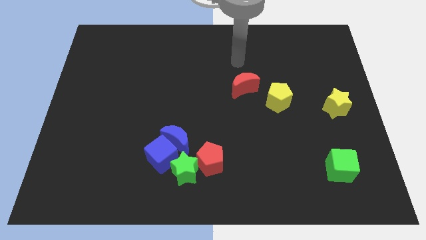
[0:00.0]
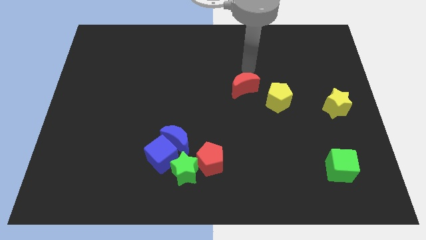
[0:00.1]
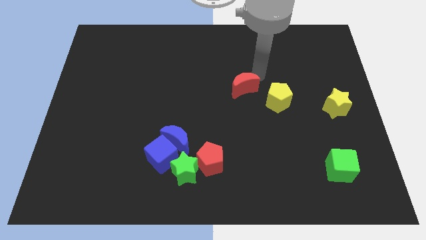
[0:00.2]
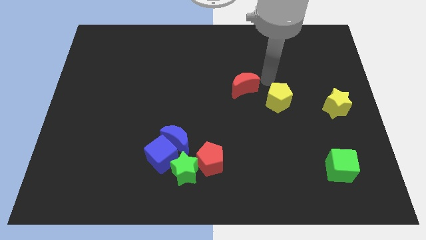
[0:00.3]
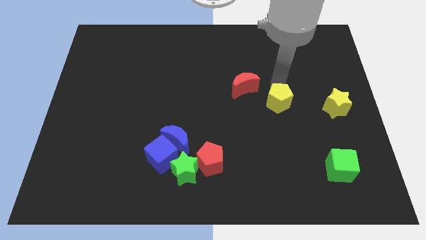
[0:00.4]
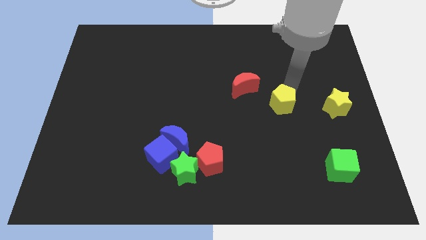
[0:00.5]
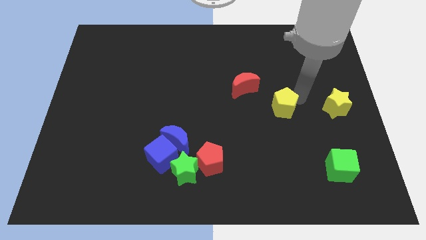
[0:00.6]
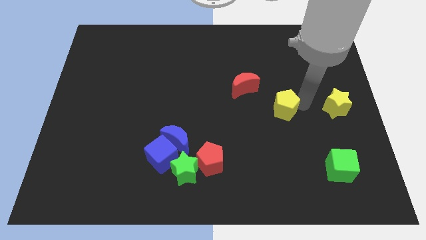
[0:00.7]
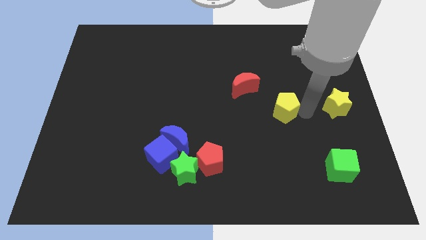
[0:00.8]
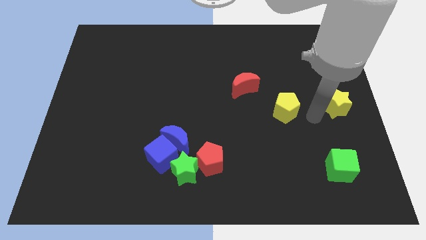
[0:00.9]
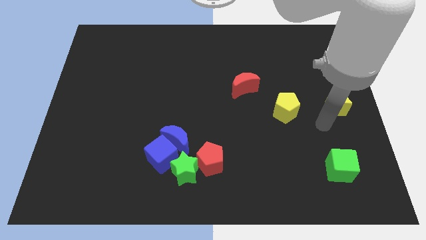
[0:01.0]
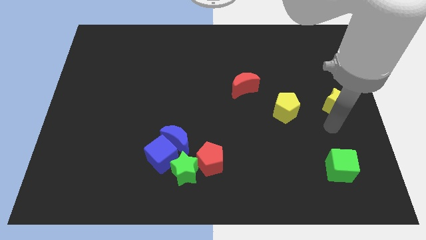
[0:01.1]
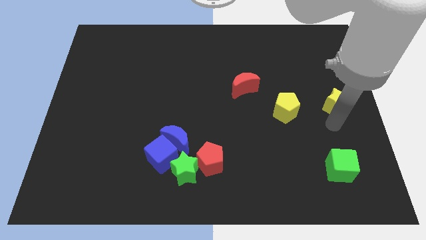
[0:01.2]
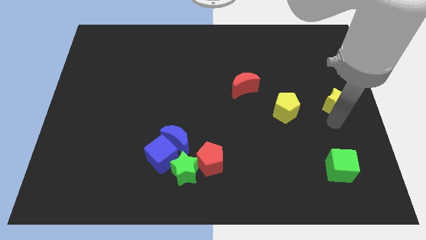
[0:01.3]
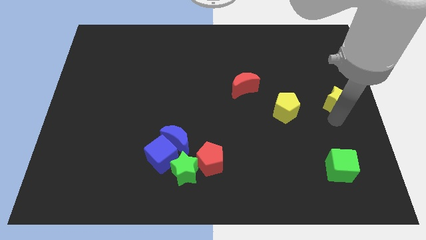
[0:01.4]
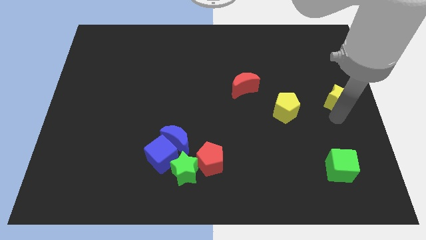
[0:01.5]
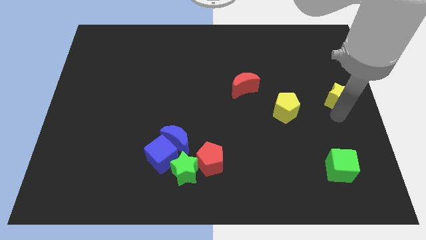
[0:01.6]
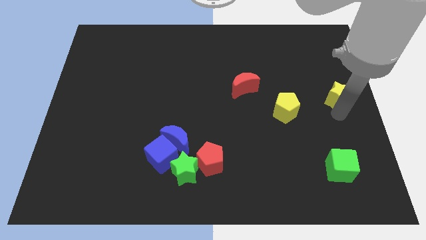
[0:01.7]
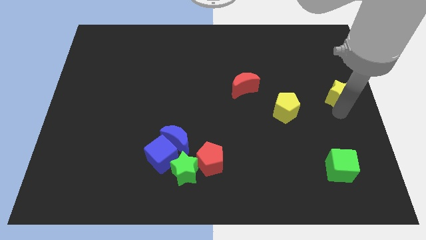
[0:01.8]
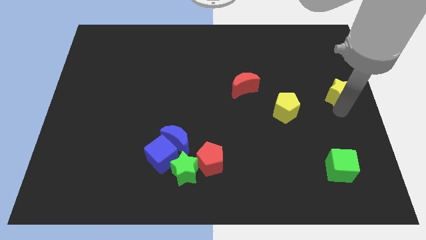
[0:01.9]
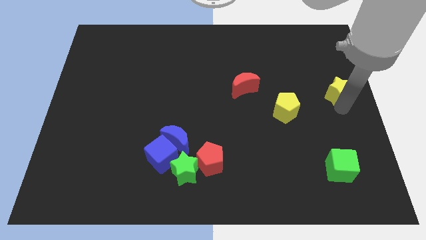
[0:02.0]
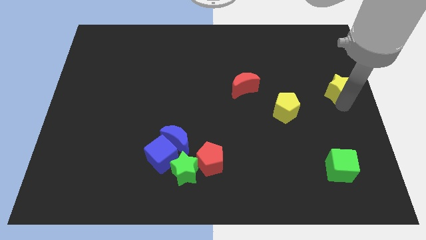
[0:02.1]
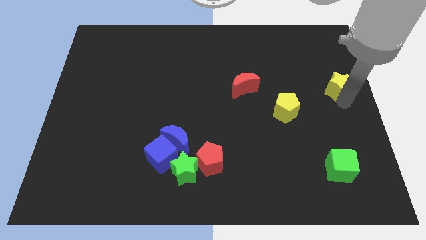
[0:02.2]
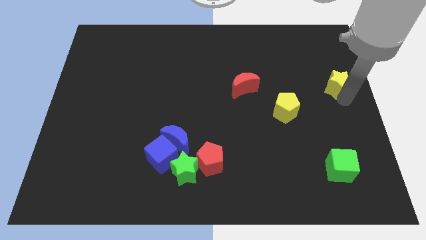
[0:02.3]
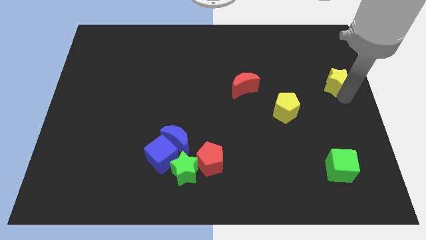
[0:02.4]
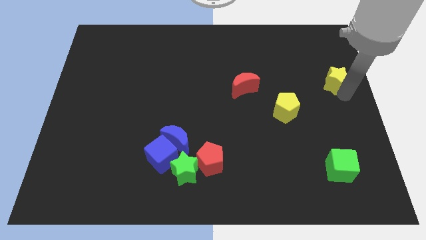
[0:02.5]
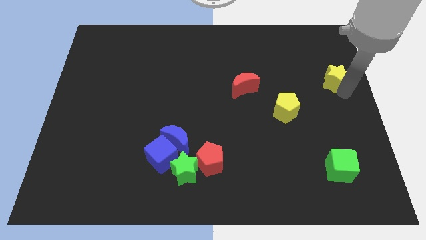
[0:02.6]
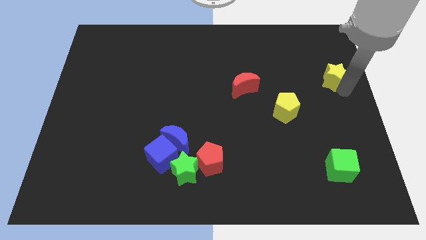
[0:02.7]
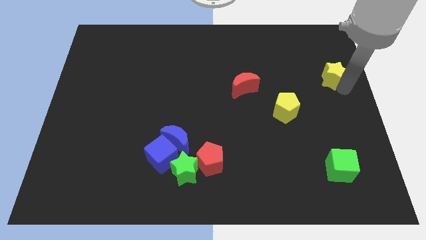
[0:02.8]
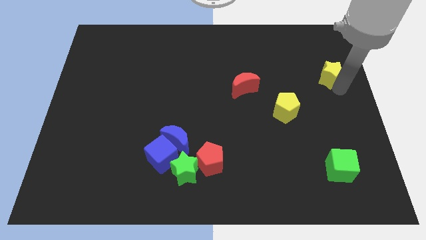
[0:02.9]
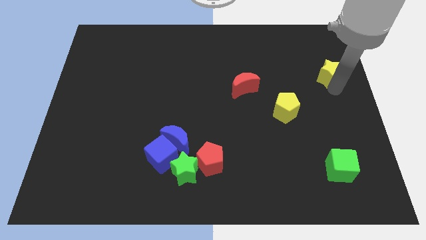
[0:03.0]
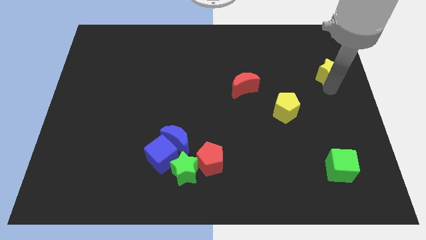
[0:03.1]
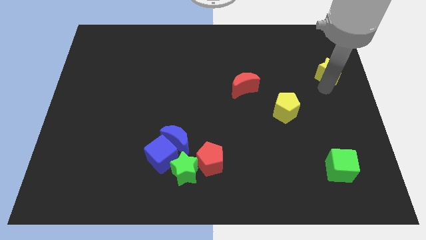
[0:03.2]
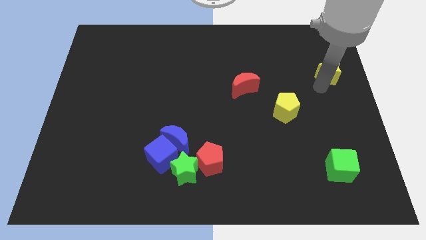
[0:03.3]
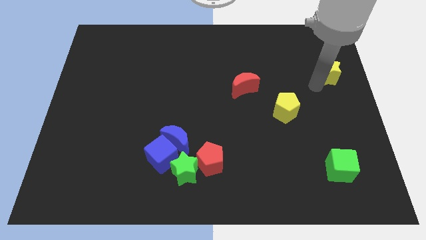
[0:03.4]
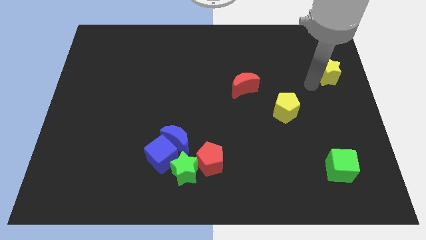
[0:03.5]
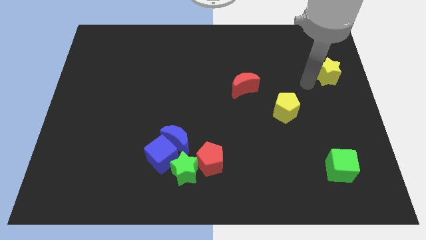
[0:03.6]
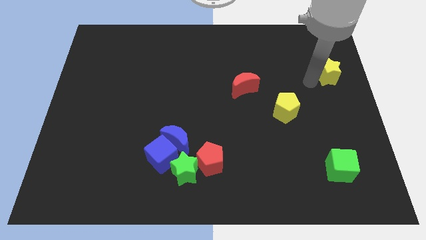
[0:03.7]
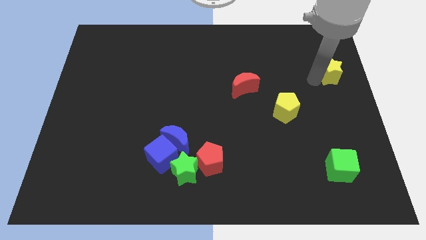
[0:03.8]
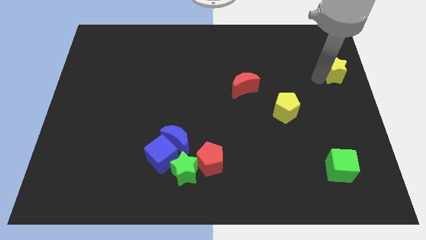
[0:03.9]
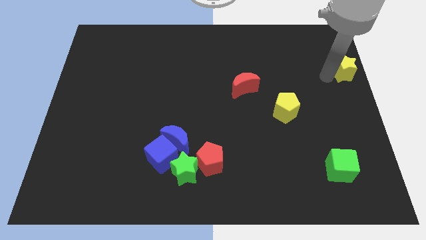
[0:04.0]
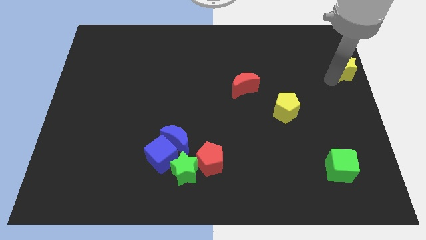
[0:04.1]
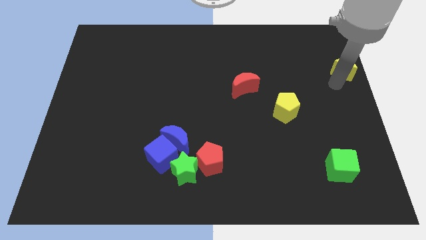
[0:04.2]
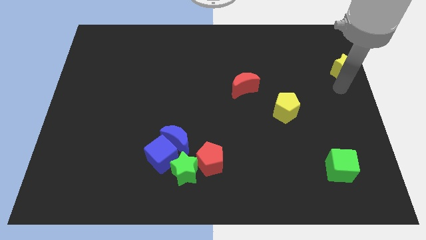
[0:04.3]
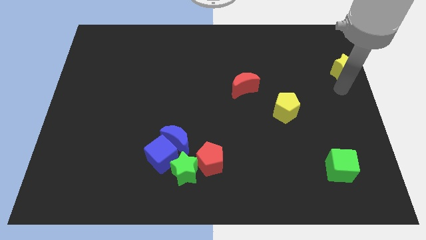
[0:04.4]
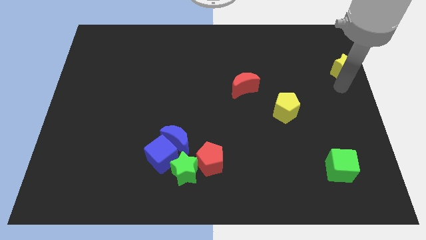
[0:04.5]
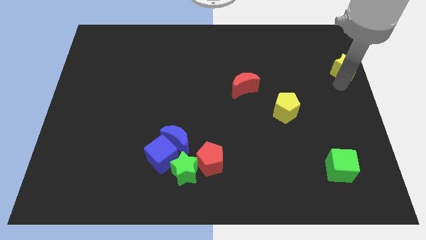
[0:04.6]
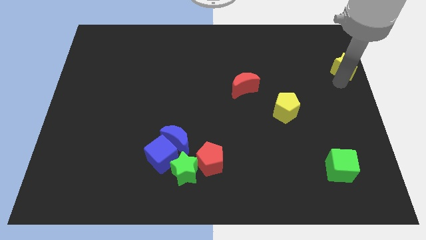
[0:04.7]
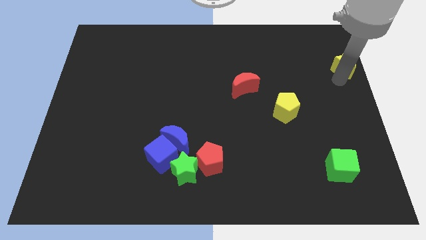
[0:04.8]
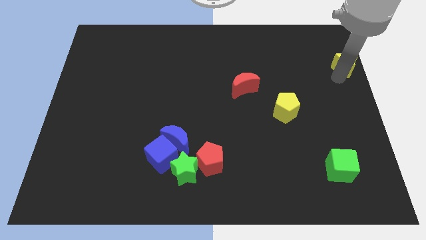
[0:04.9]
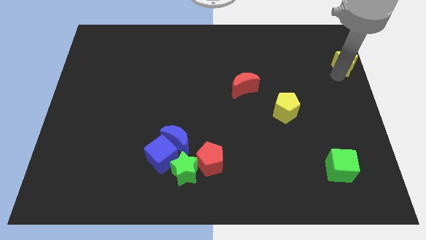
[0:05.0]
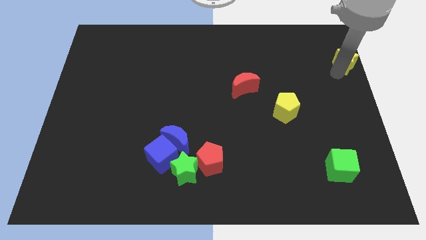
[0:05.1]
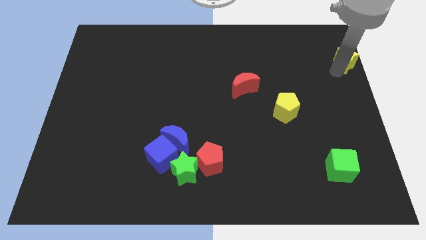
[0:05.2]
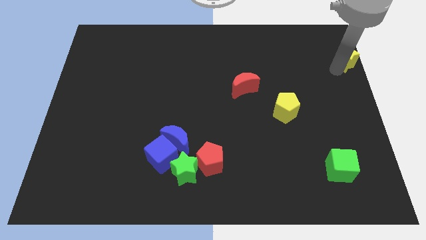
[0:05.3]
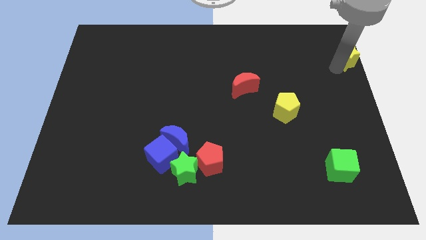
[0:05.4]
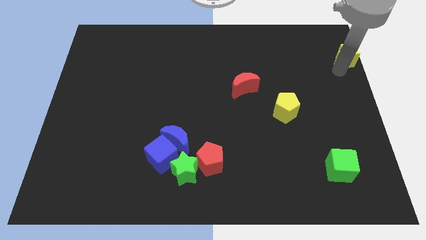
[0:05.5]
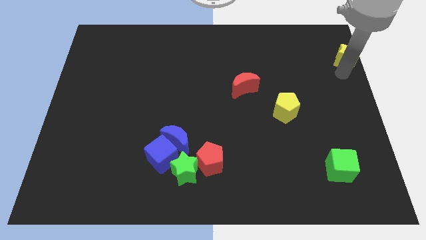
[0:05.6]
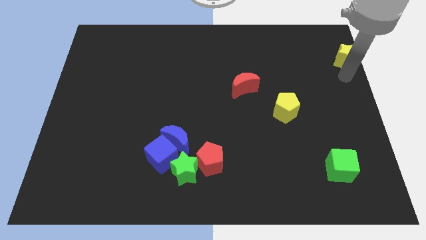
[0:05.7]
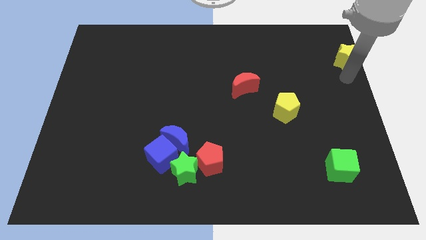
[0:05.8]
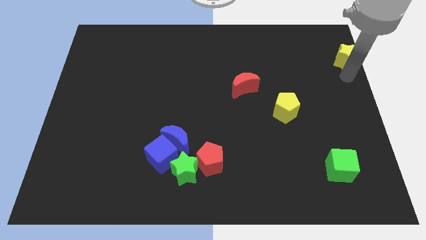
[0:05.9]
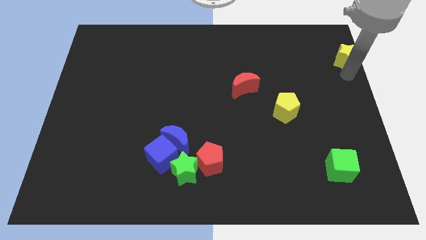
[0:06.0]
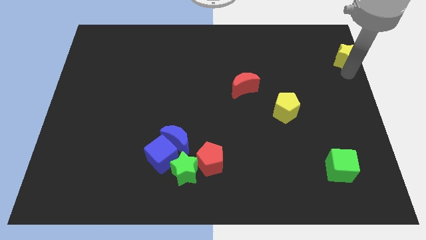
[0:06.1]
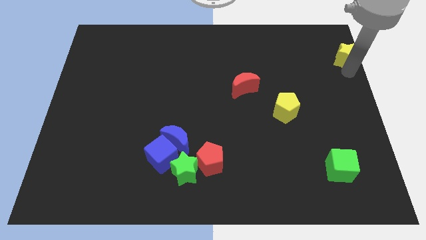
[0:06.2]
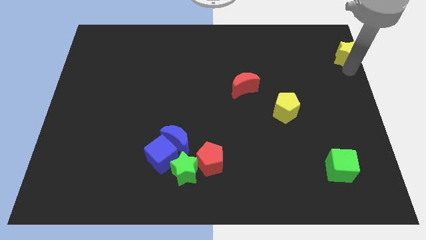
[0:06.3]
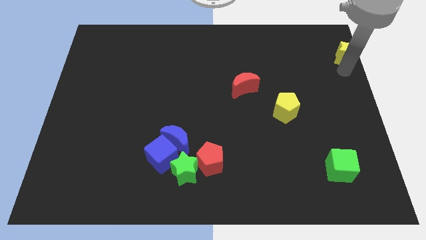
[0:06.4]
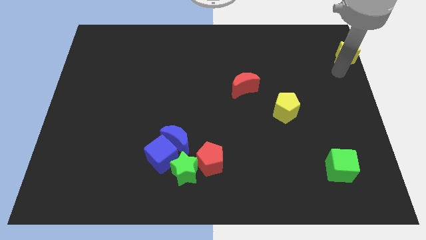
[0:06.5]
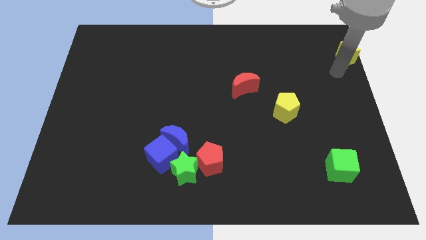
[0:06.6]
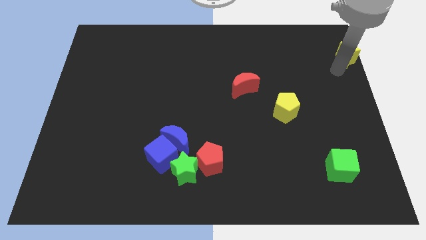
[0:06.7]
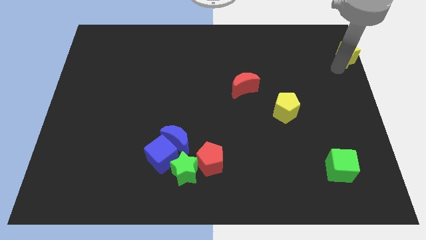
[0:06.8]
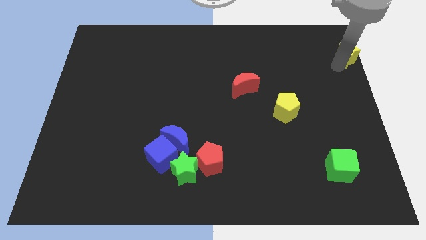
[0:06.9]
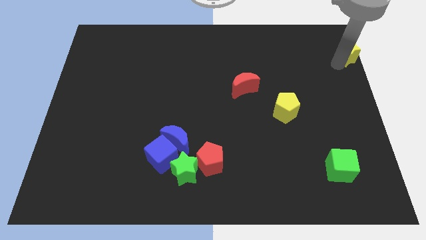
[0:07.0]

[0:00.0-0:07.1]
push the yellow star to the upper right corner

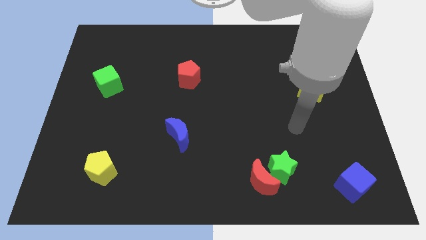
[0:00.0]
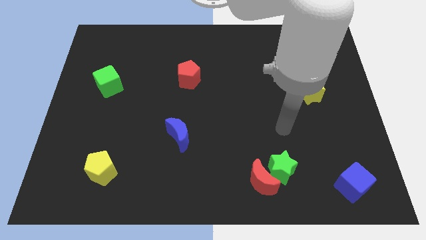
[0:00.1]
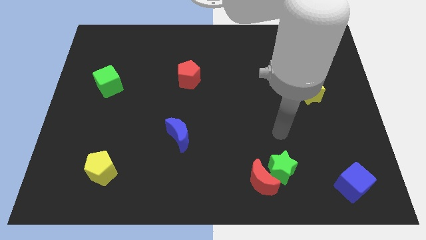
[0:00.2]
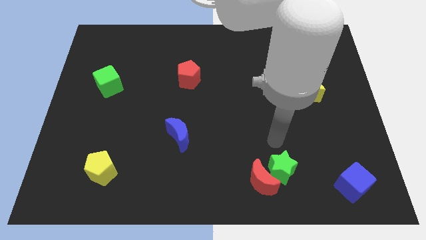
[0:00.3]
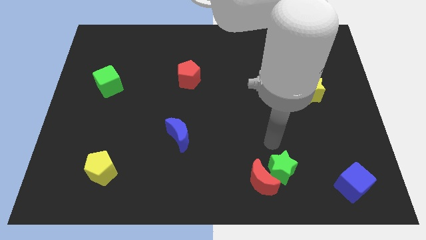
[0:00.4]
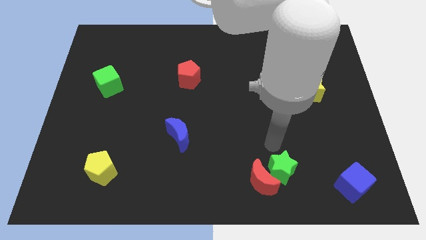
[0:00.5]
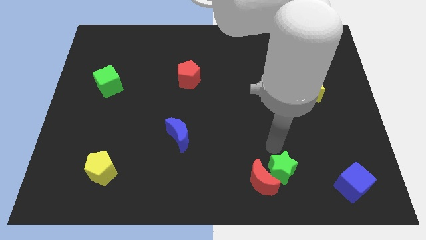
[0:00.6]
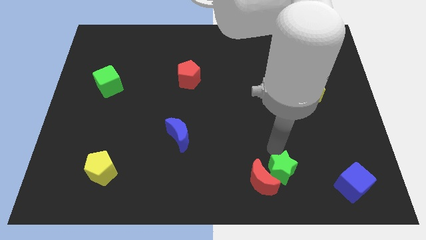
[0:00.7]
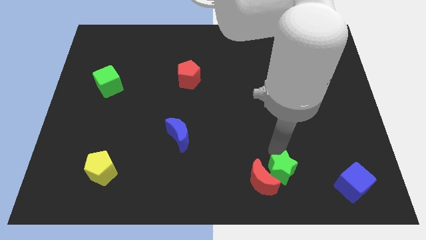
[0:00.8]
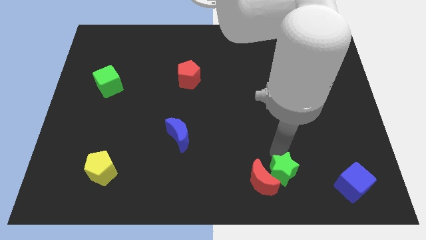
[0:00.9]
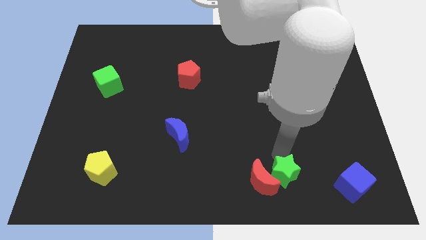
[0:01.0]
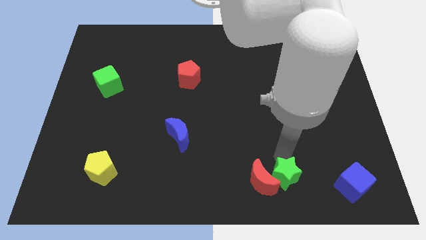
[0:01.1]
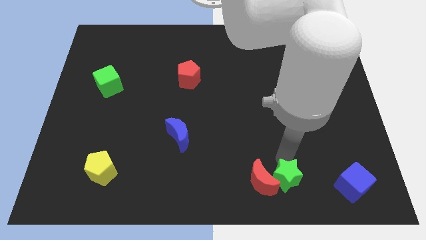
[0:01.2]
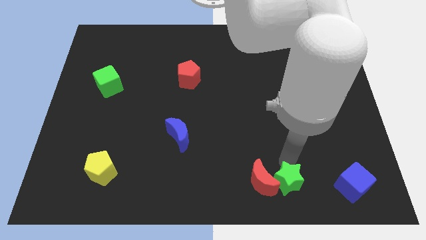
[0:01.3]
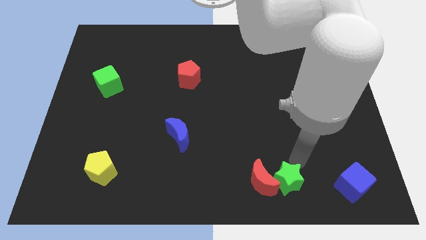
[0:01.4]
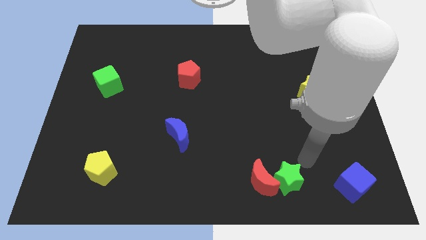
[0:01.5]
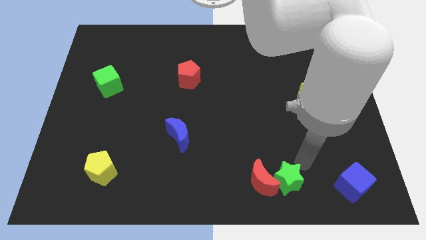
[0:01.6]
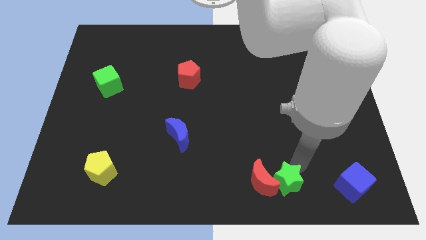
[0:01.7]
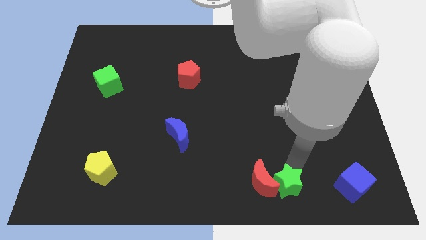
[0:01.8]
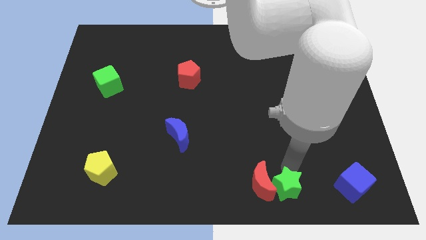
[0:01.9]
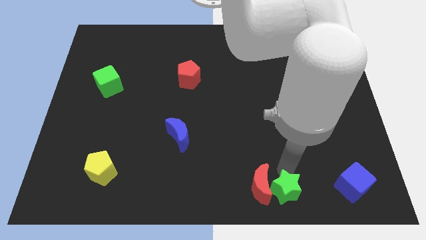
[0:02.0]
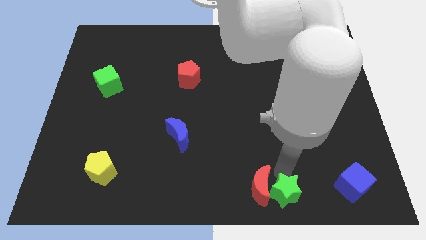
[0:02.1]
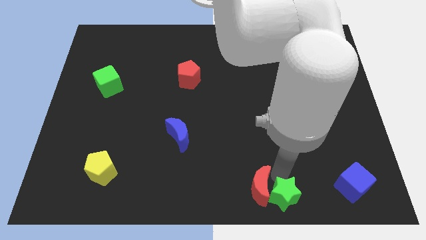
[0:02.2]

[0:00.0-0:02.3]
put the green star to the bottom side
